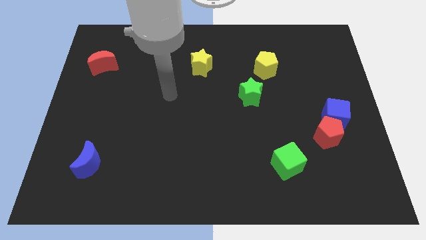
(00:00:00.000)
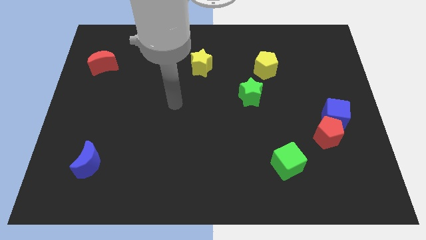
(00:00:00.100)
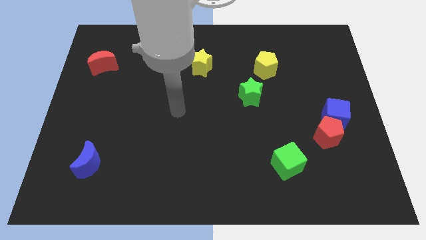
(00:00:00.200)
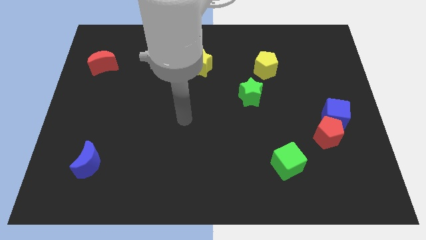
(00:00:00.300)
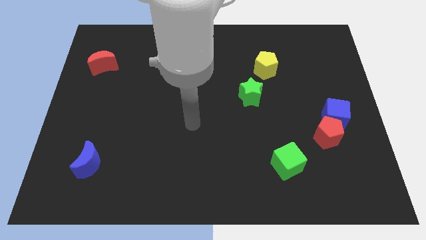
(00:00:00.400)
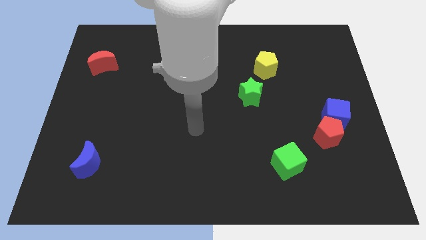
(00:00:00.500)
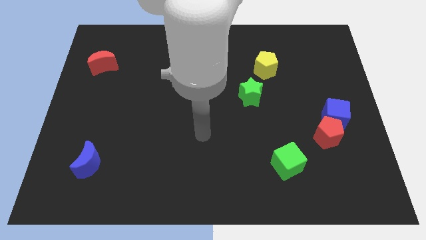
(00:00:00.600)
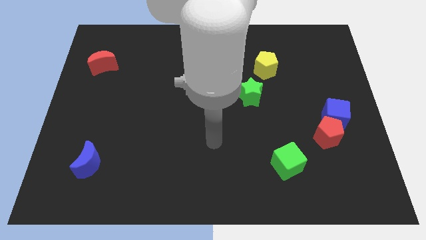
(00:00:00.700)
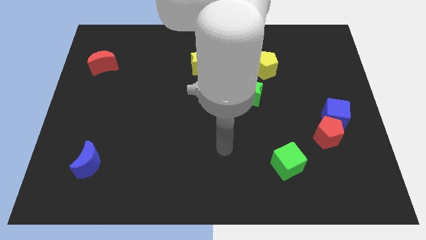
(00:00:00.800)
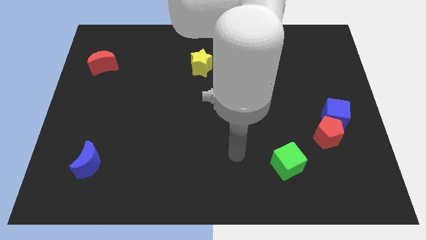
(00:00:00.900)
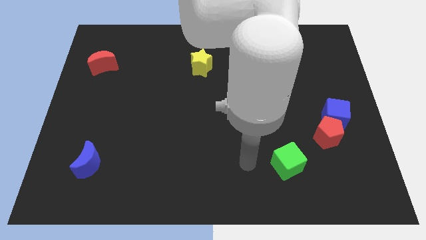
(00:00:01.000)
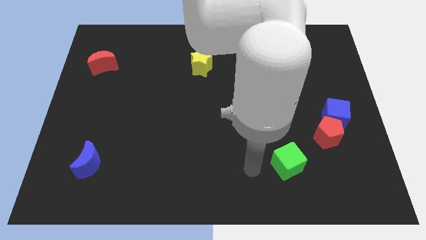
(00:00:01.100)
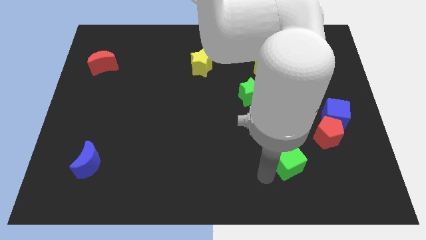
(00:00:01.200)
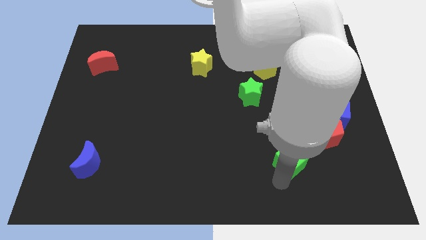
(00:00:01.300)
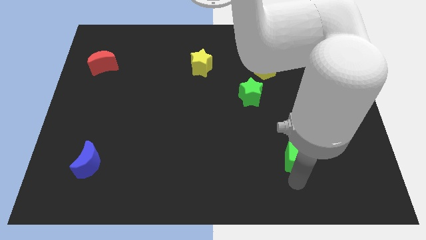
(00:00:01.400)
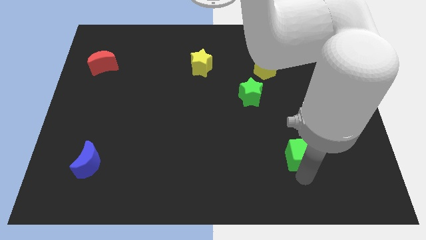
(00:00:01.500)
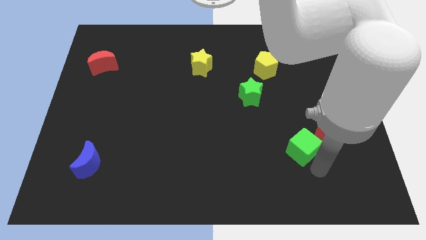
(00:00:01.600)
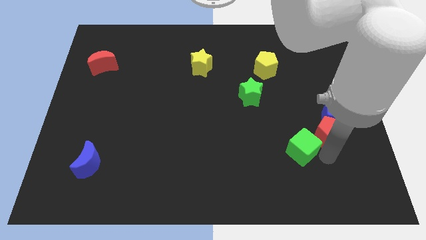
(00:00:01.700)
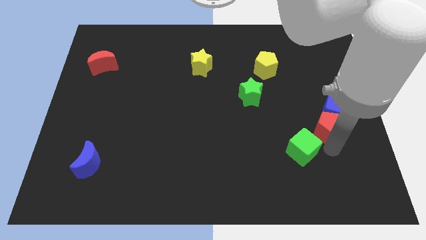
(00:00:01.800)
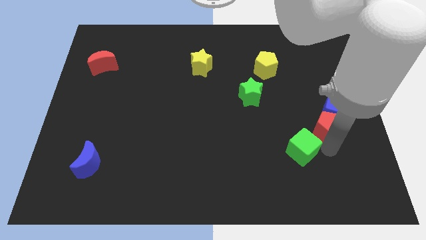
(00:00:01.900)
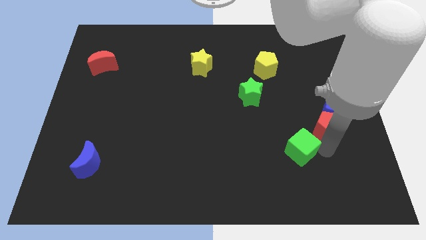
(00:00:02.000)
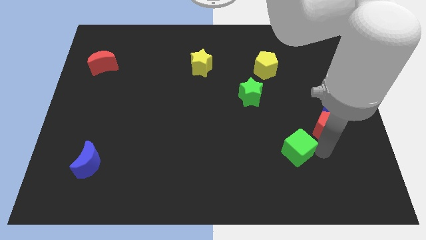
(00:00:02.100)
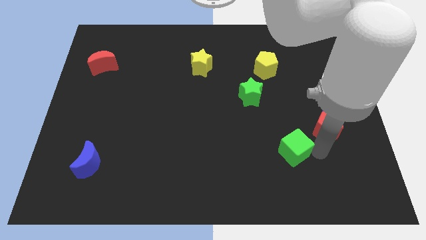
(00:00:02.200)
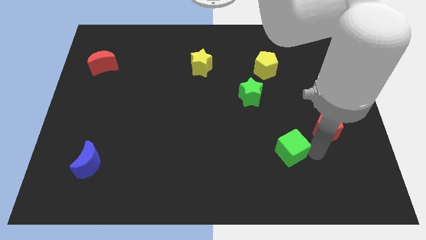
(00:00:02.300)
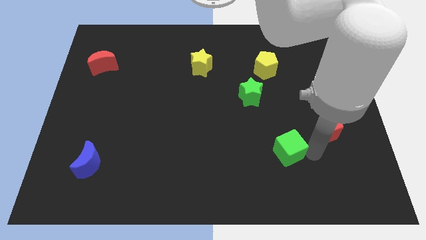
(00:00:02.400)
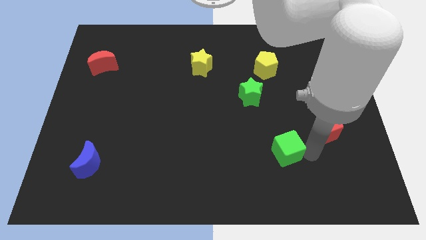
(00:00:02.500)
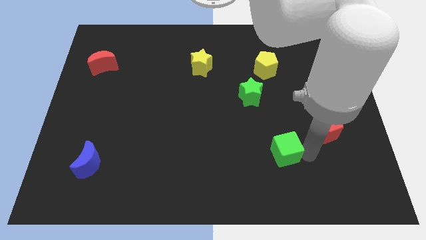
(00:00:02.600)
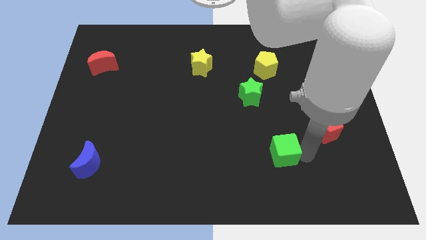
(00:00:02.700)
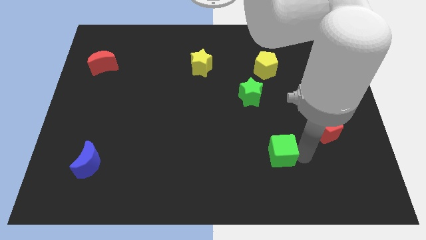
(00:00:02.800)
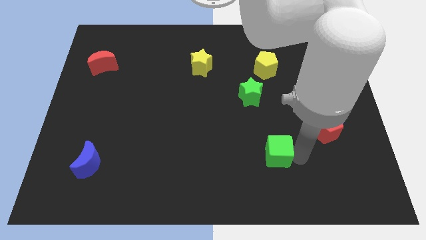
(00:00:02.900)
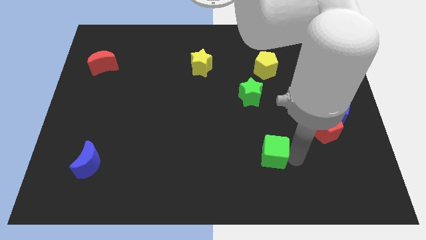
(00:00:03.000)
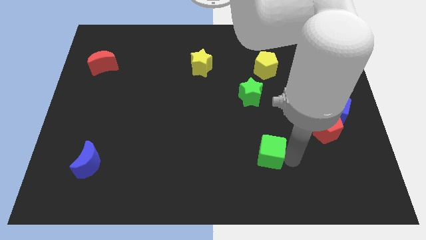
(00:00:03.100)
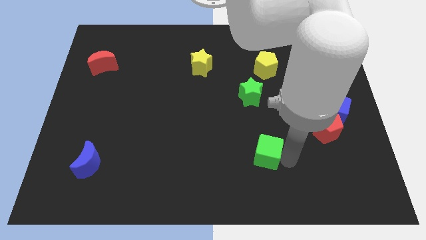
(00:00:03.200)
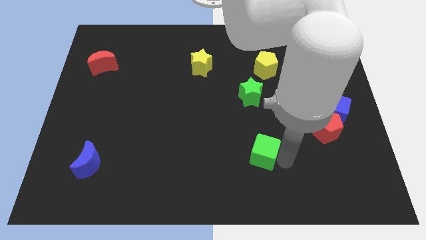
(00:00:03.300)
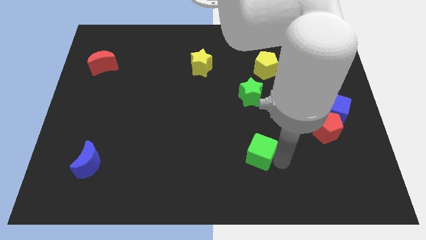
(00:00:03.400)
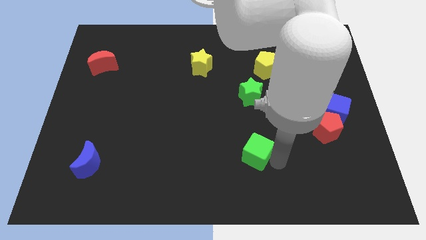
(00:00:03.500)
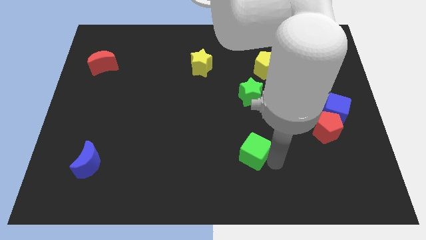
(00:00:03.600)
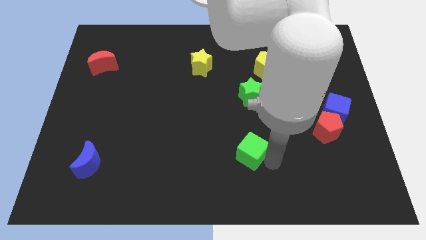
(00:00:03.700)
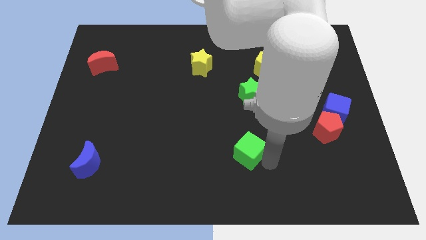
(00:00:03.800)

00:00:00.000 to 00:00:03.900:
slightly push the green cube up and to the left diagonally

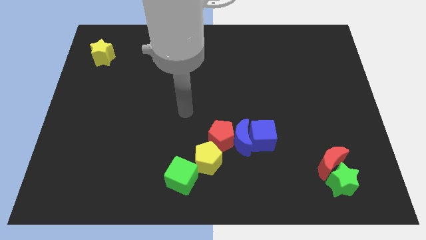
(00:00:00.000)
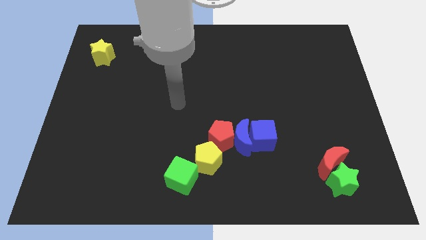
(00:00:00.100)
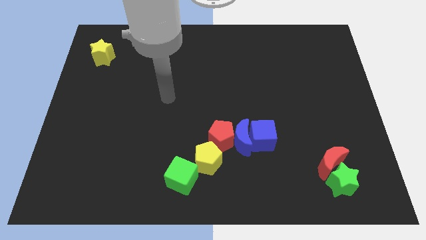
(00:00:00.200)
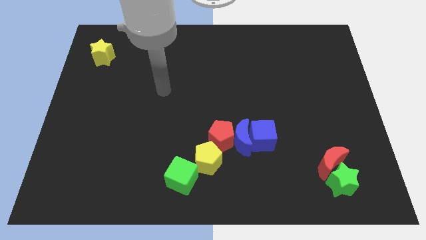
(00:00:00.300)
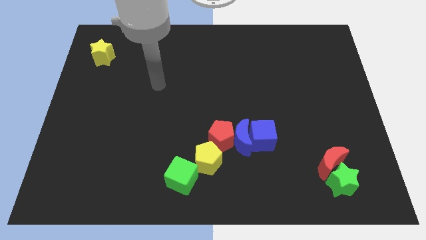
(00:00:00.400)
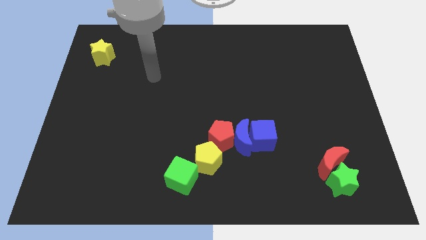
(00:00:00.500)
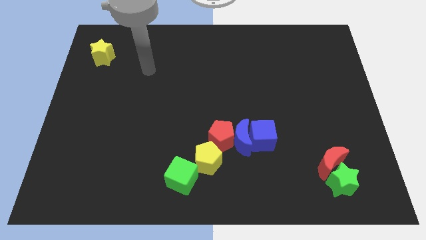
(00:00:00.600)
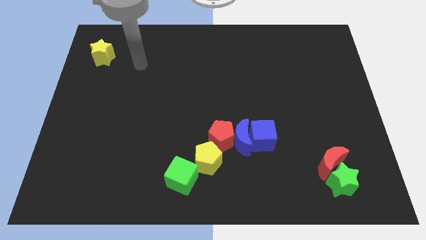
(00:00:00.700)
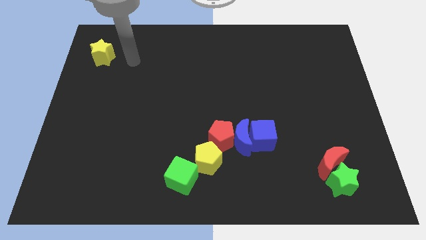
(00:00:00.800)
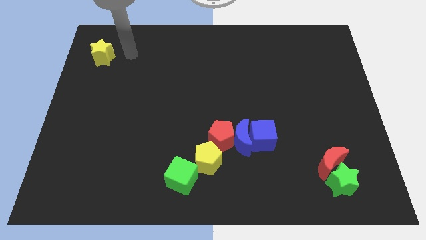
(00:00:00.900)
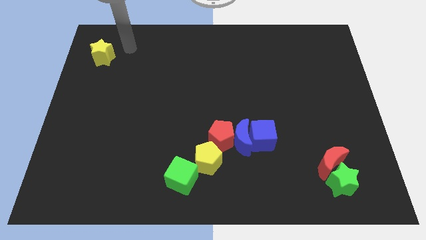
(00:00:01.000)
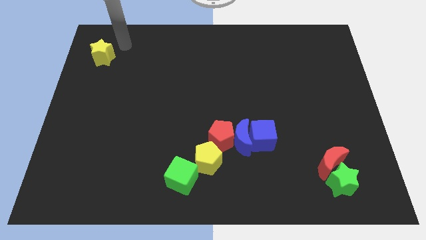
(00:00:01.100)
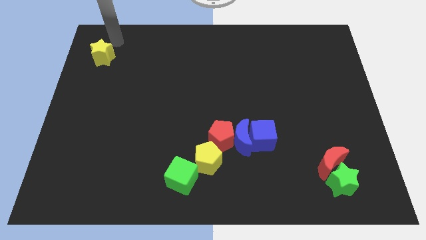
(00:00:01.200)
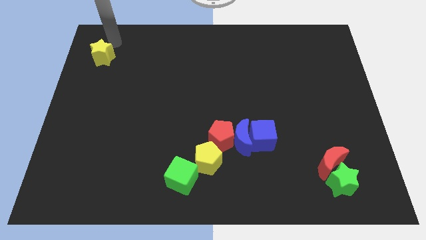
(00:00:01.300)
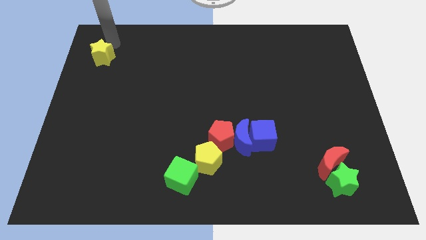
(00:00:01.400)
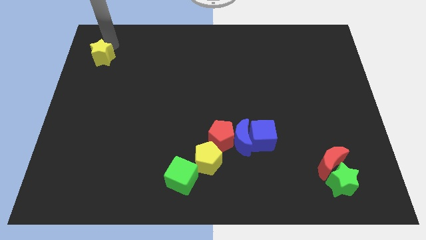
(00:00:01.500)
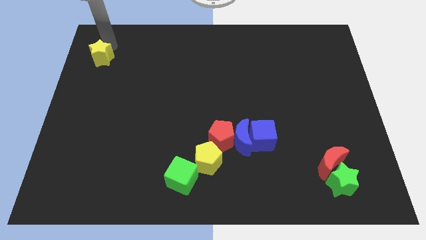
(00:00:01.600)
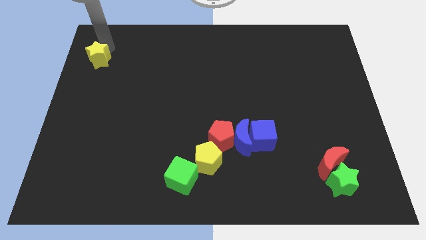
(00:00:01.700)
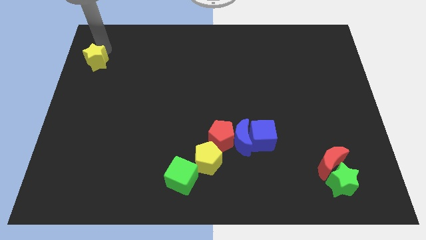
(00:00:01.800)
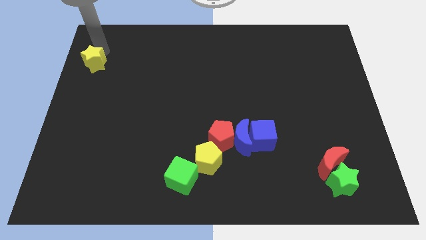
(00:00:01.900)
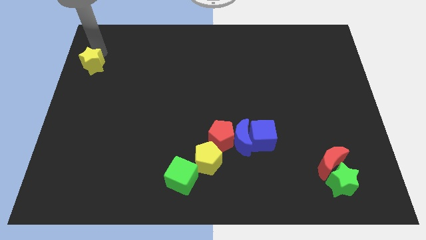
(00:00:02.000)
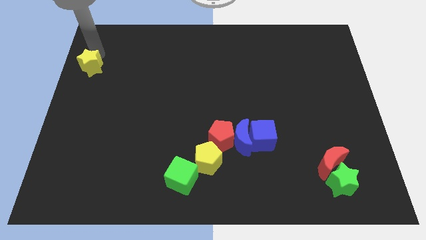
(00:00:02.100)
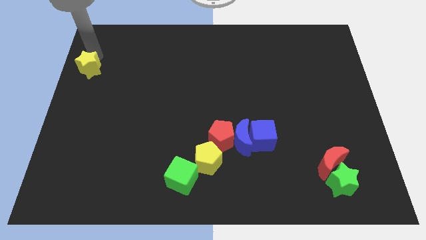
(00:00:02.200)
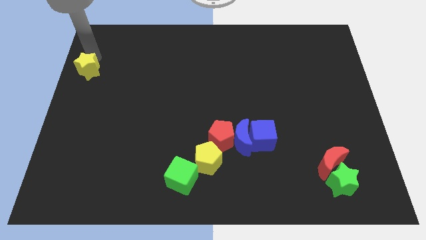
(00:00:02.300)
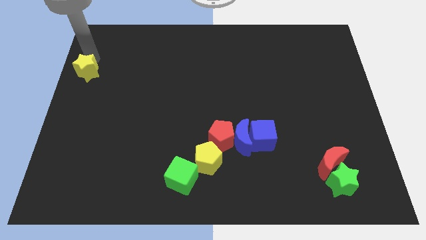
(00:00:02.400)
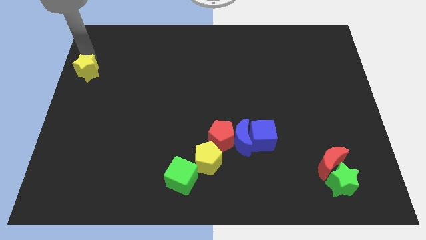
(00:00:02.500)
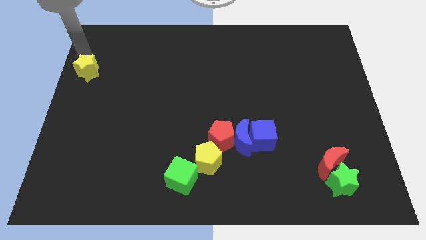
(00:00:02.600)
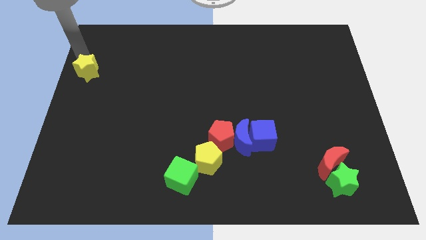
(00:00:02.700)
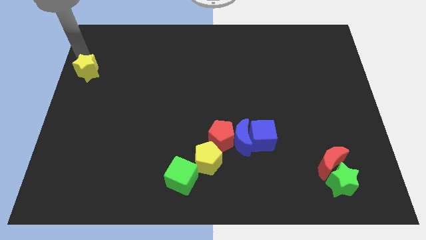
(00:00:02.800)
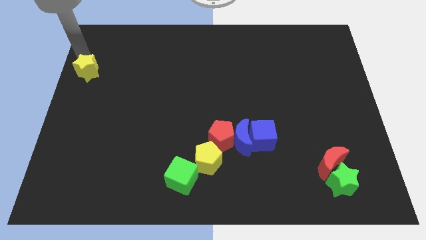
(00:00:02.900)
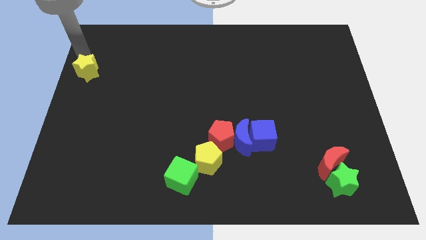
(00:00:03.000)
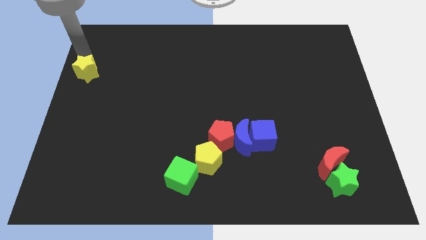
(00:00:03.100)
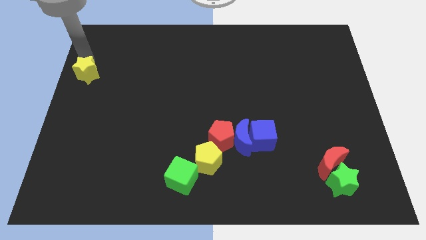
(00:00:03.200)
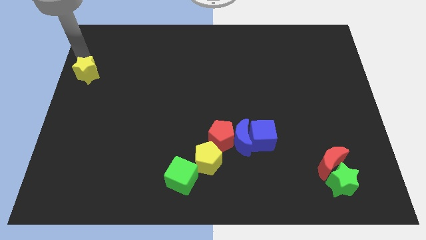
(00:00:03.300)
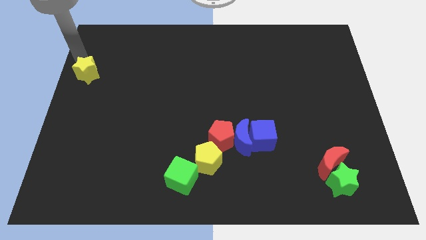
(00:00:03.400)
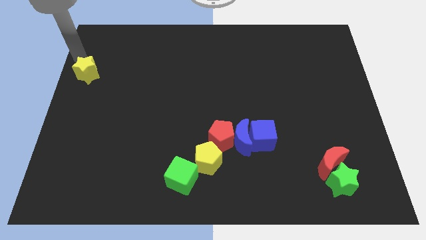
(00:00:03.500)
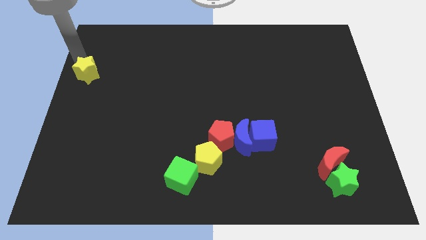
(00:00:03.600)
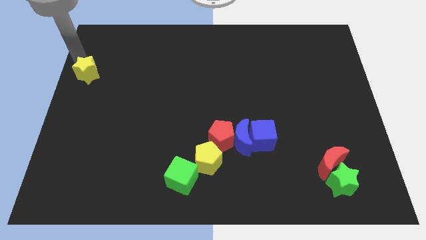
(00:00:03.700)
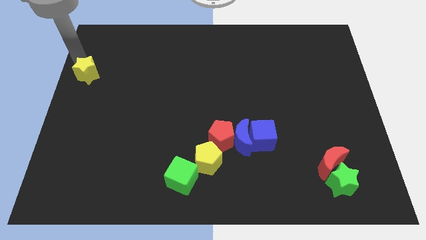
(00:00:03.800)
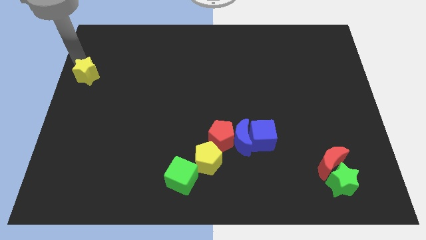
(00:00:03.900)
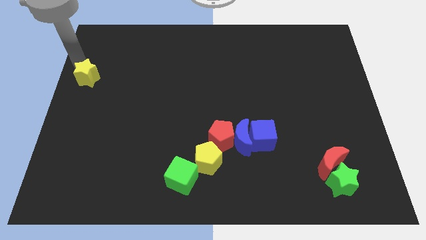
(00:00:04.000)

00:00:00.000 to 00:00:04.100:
slide the yellow star a little bit down
